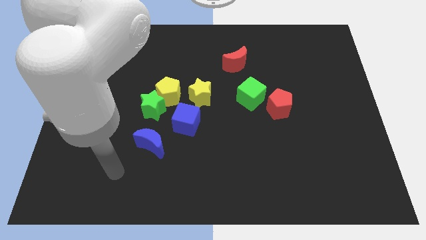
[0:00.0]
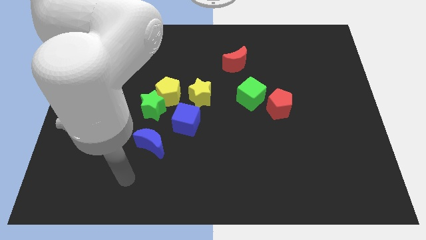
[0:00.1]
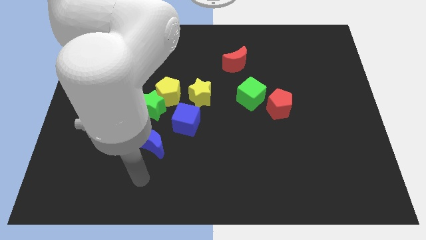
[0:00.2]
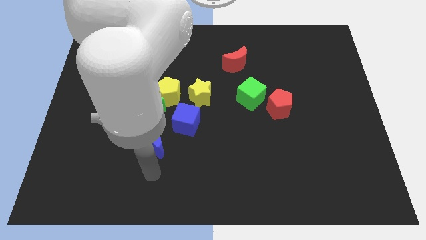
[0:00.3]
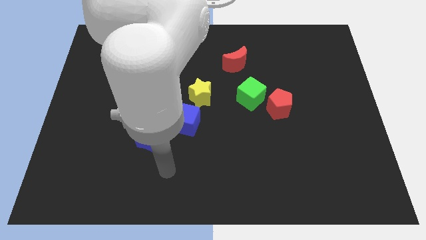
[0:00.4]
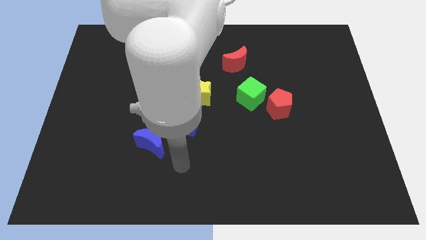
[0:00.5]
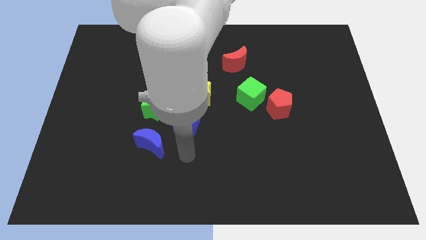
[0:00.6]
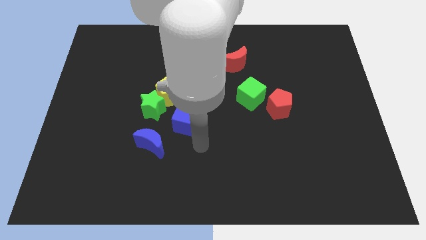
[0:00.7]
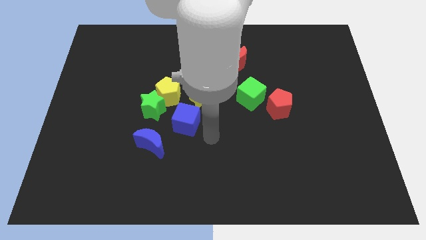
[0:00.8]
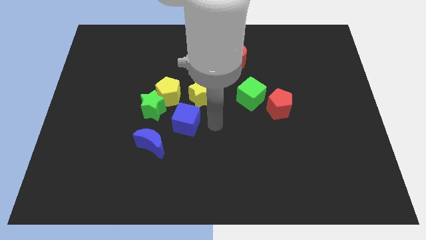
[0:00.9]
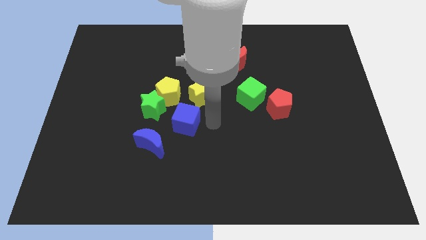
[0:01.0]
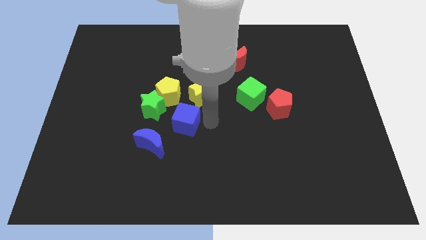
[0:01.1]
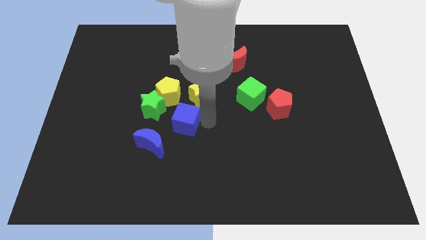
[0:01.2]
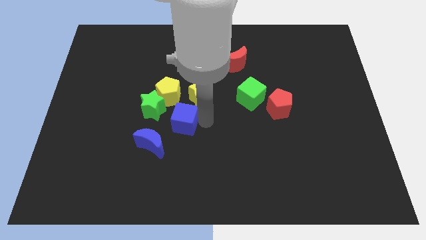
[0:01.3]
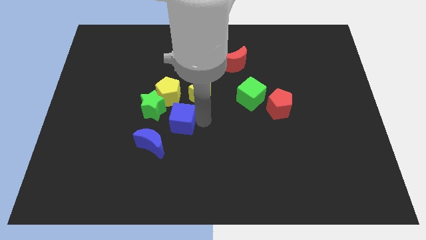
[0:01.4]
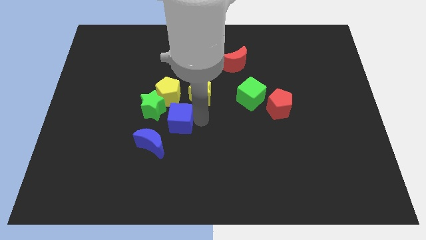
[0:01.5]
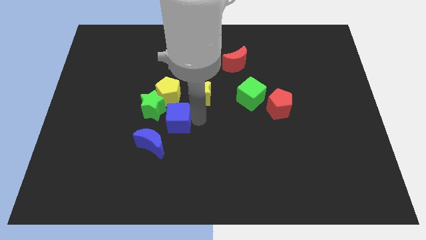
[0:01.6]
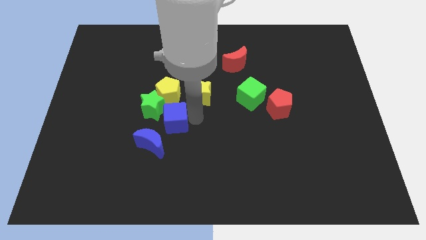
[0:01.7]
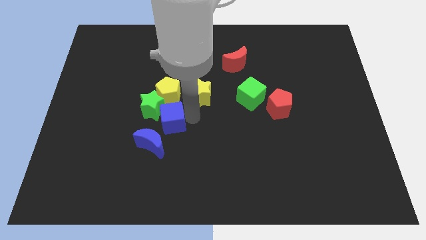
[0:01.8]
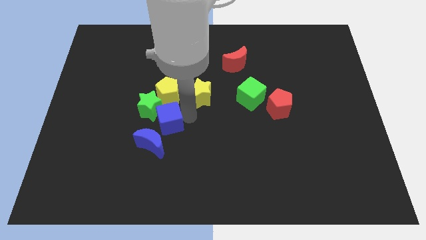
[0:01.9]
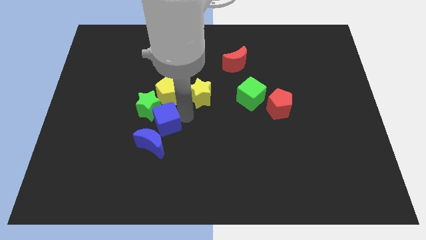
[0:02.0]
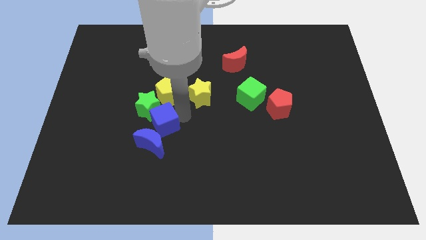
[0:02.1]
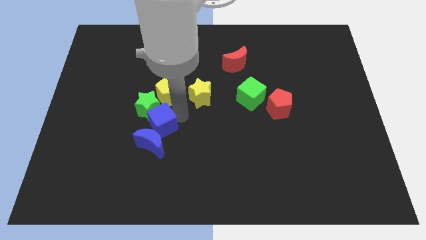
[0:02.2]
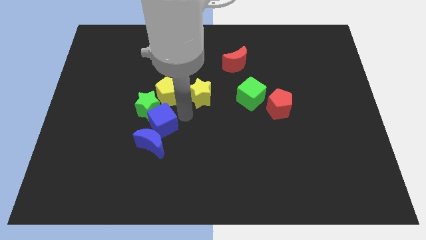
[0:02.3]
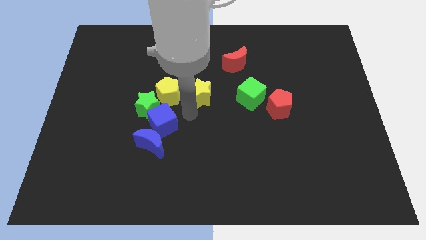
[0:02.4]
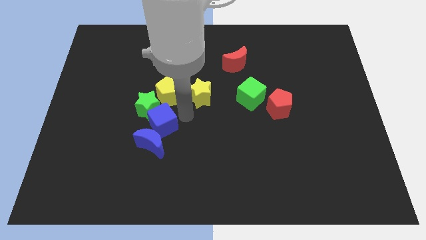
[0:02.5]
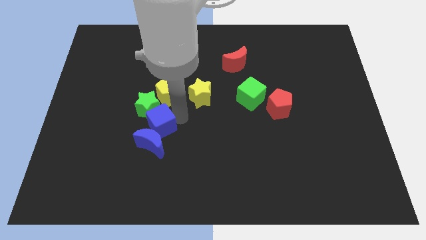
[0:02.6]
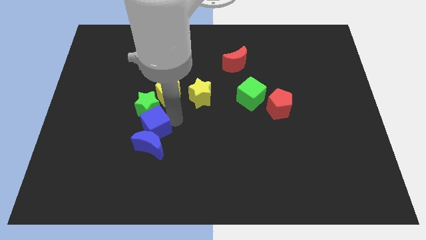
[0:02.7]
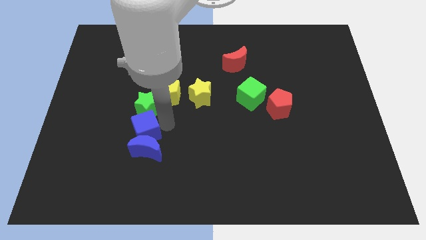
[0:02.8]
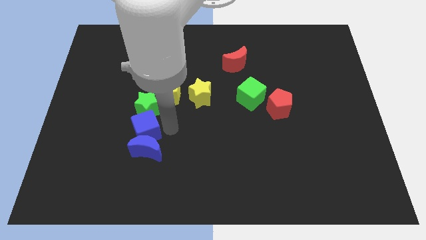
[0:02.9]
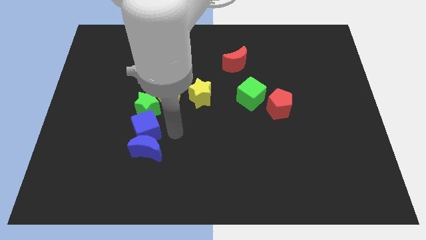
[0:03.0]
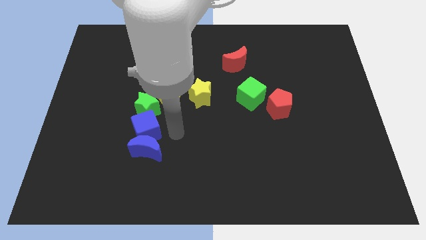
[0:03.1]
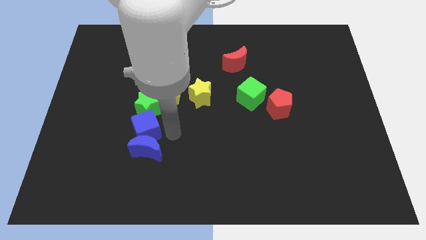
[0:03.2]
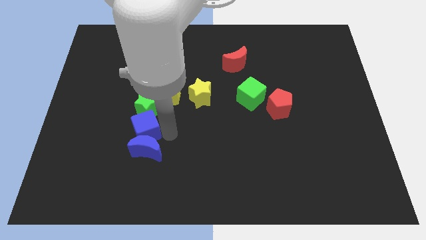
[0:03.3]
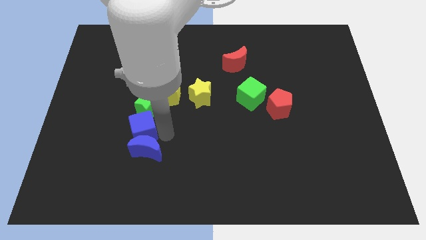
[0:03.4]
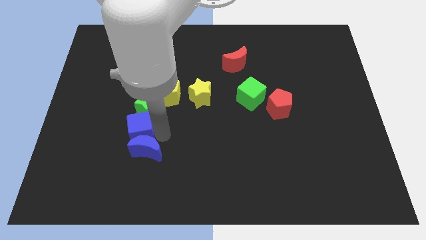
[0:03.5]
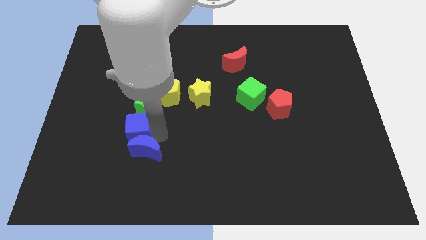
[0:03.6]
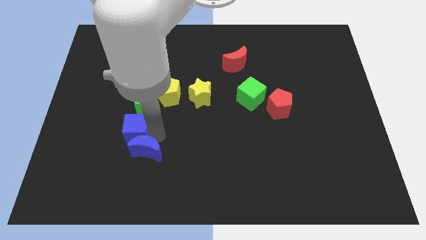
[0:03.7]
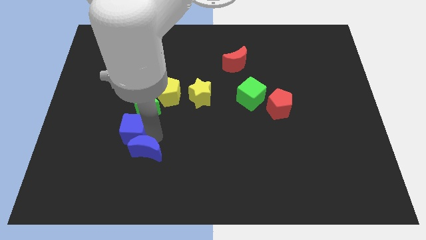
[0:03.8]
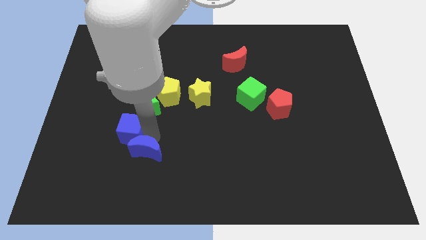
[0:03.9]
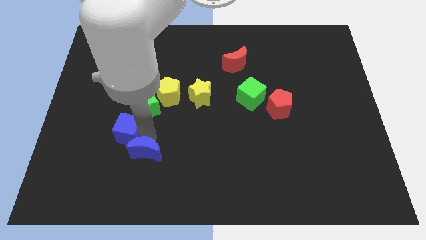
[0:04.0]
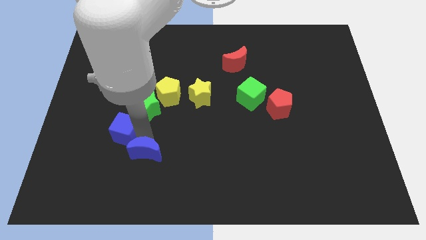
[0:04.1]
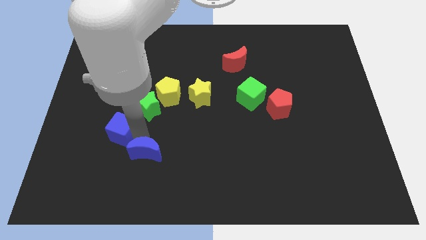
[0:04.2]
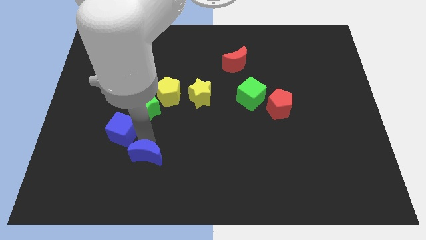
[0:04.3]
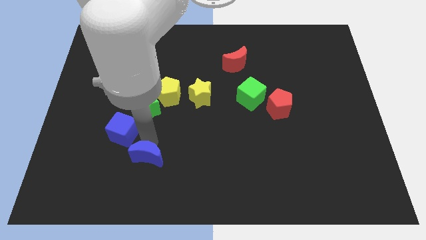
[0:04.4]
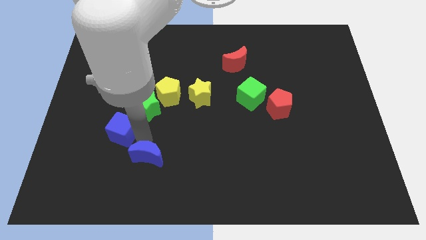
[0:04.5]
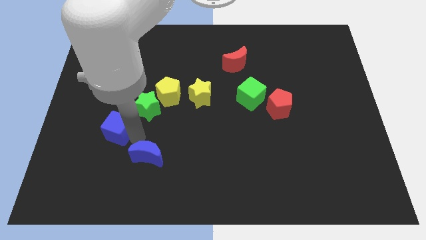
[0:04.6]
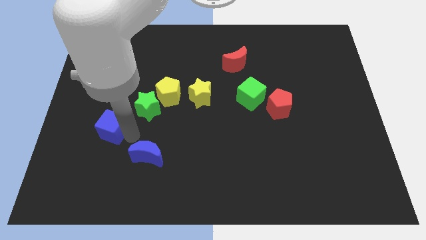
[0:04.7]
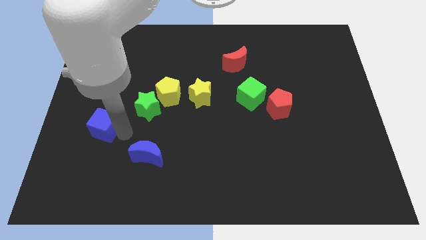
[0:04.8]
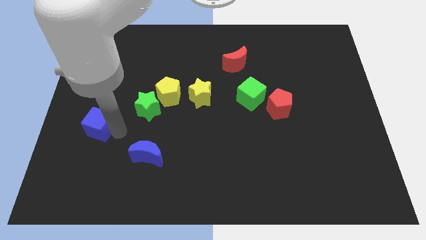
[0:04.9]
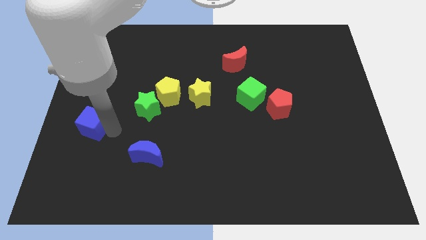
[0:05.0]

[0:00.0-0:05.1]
put the blue cube to the center left

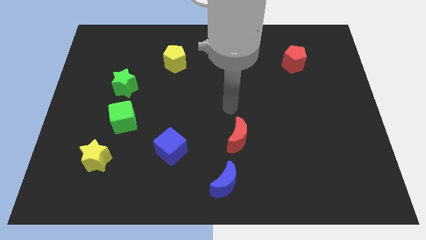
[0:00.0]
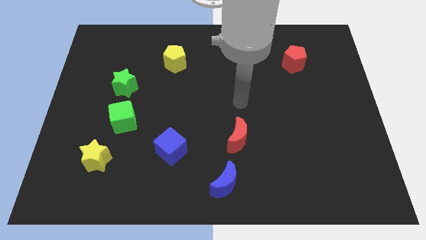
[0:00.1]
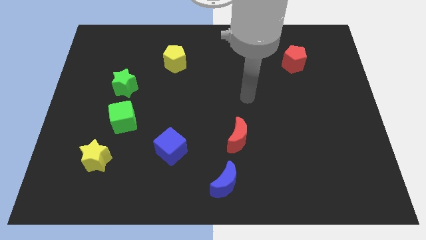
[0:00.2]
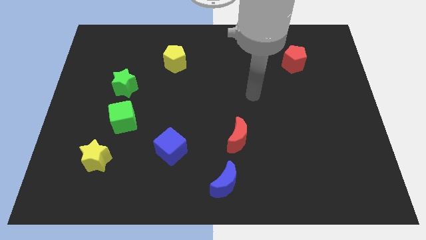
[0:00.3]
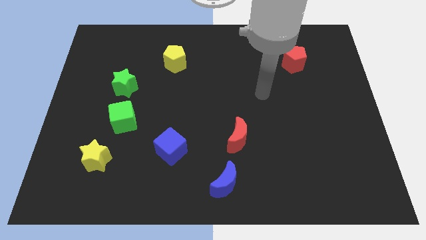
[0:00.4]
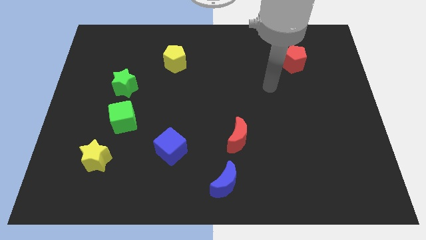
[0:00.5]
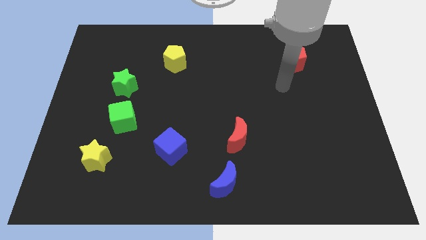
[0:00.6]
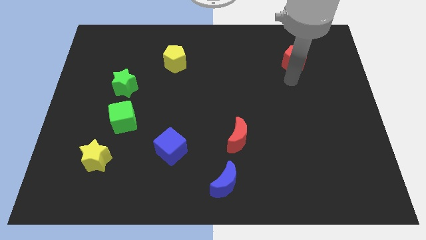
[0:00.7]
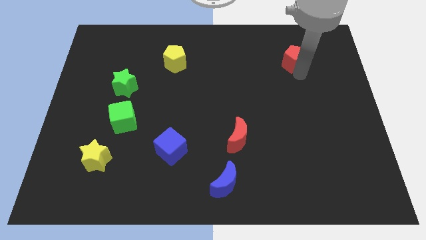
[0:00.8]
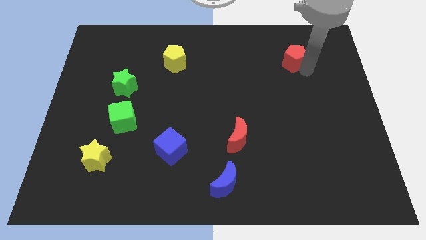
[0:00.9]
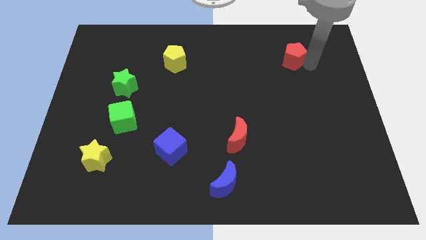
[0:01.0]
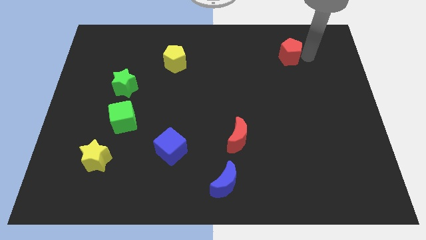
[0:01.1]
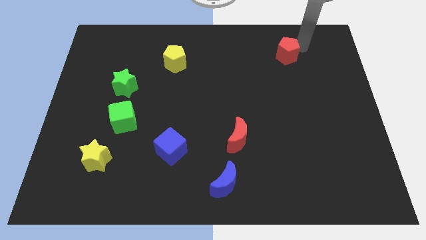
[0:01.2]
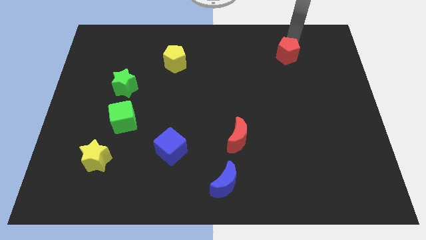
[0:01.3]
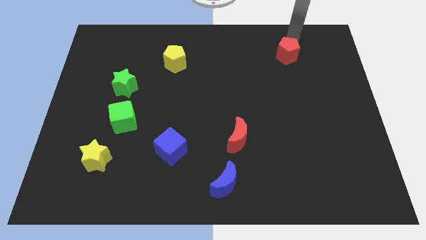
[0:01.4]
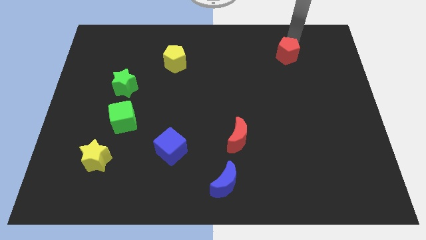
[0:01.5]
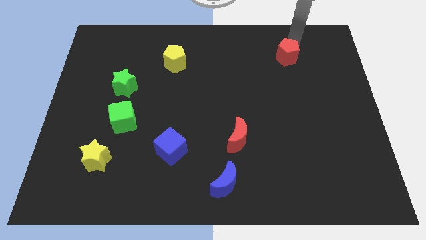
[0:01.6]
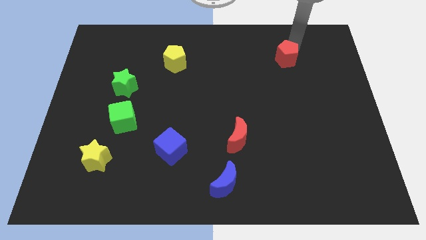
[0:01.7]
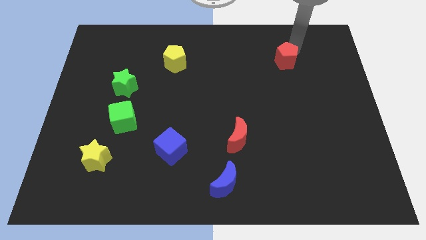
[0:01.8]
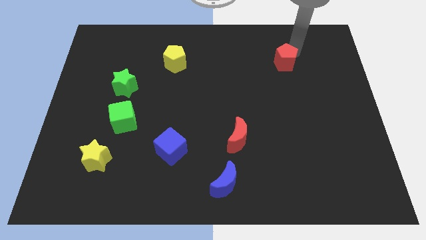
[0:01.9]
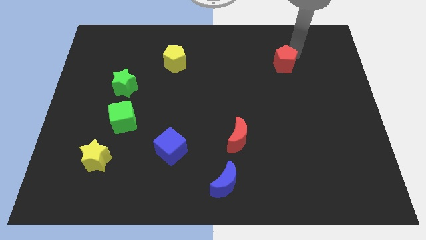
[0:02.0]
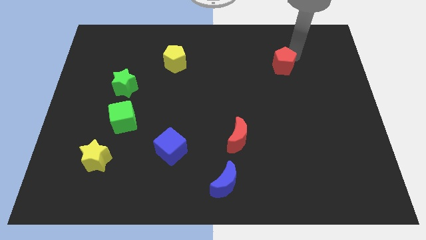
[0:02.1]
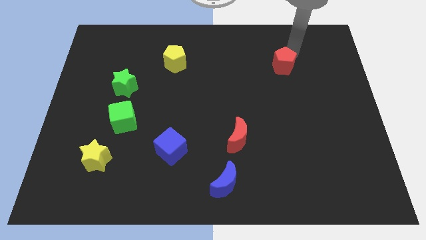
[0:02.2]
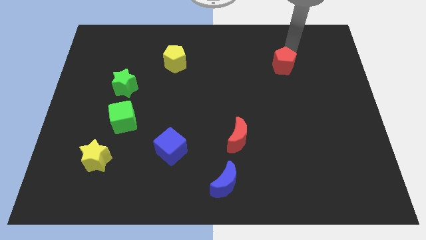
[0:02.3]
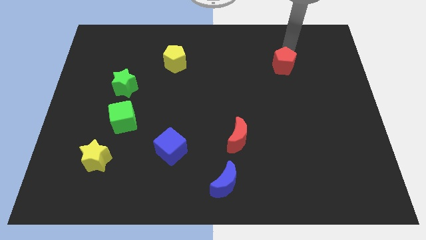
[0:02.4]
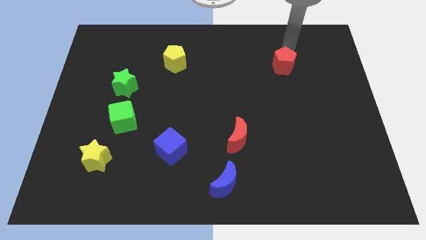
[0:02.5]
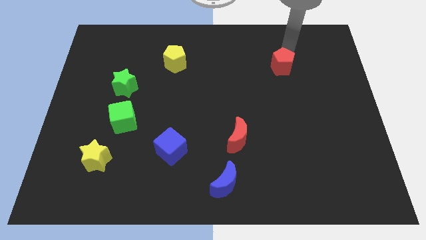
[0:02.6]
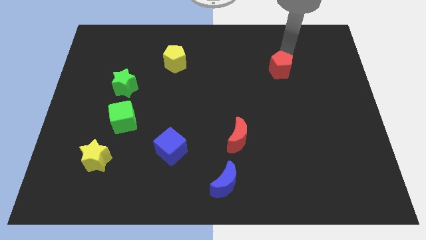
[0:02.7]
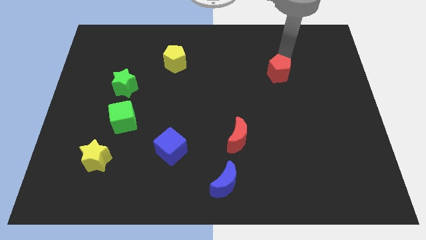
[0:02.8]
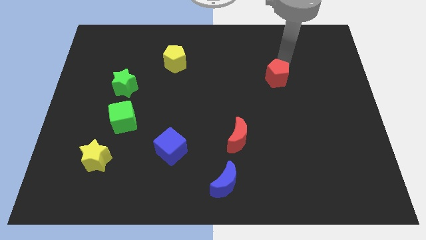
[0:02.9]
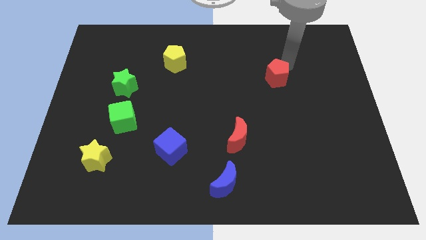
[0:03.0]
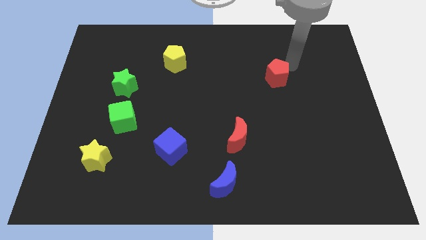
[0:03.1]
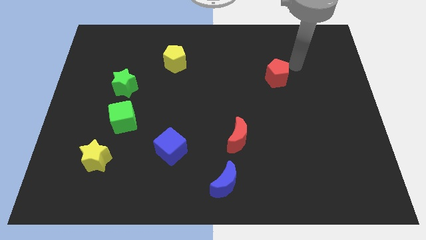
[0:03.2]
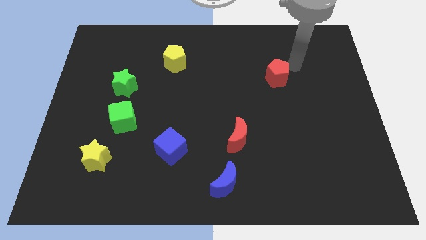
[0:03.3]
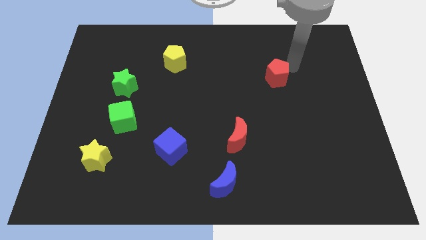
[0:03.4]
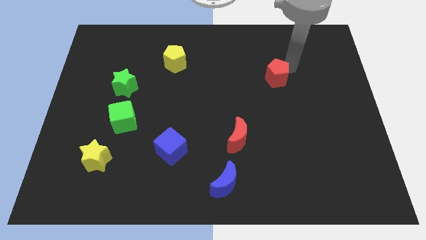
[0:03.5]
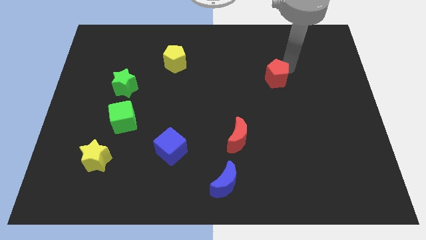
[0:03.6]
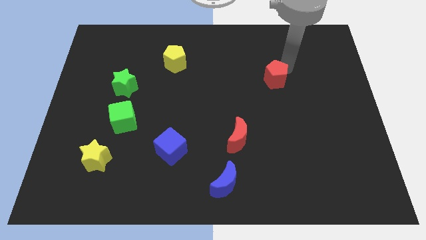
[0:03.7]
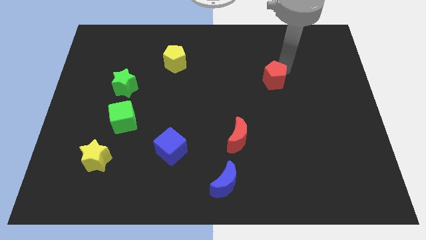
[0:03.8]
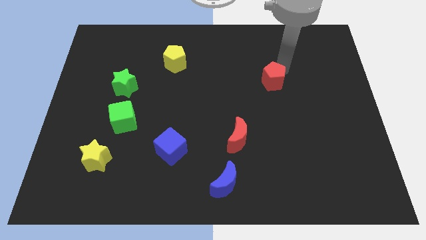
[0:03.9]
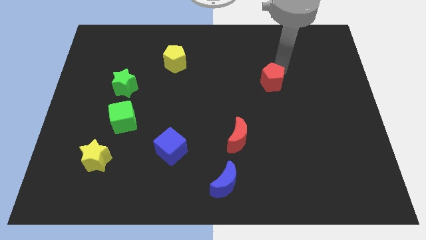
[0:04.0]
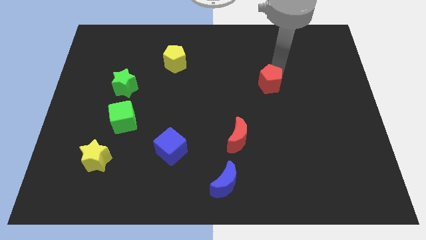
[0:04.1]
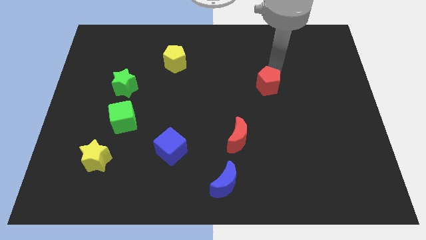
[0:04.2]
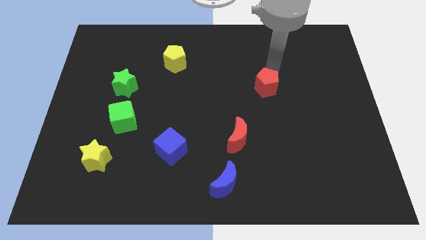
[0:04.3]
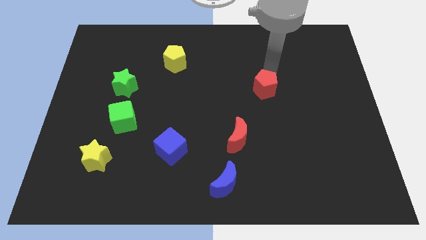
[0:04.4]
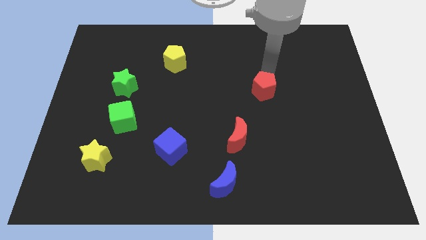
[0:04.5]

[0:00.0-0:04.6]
push the red pentagon to the middle
